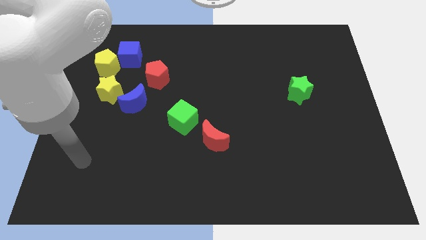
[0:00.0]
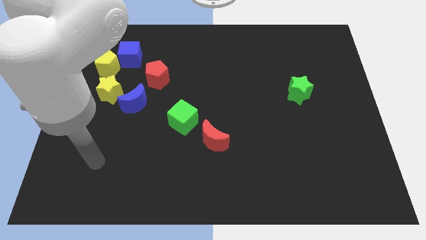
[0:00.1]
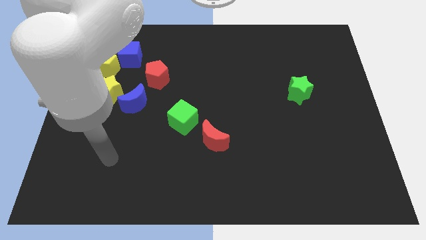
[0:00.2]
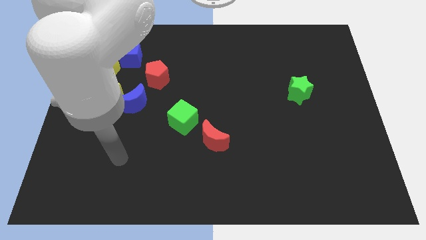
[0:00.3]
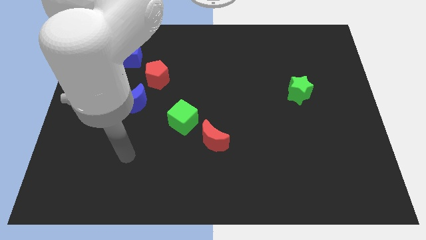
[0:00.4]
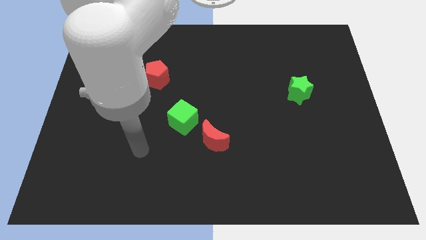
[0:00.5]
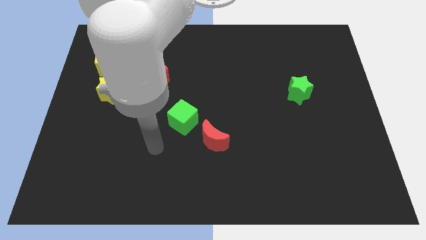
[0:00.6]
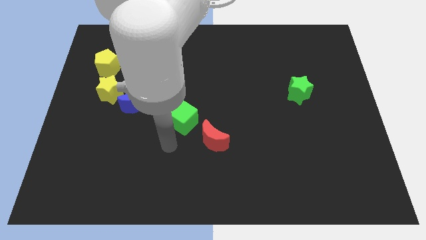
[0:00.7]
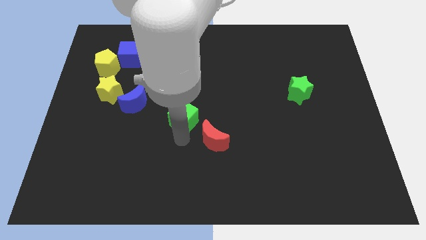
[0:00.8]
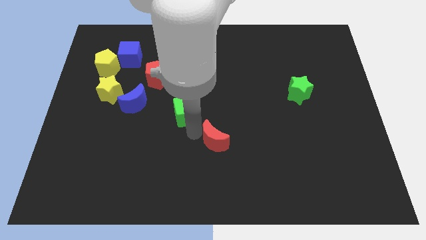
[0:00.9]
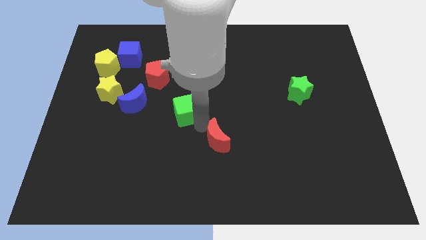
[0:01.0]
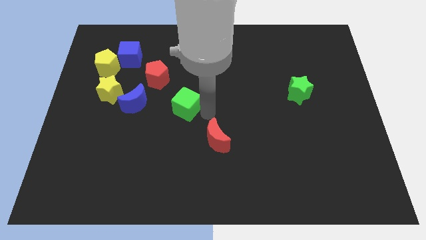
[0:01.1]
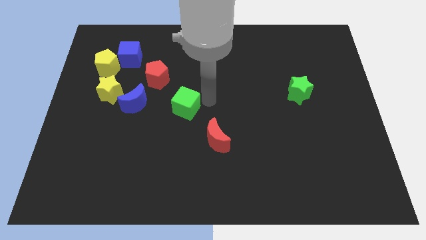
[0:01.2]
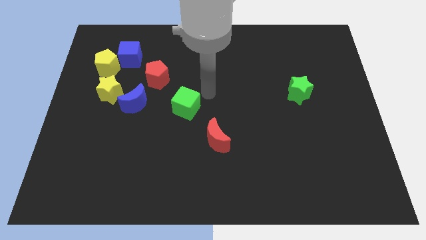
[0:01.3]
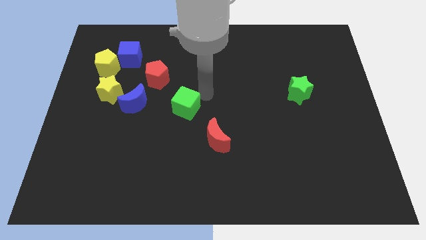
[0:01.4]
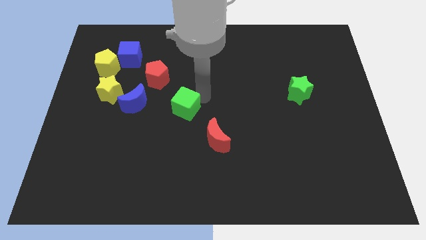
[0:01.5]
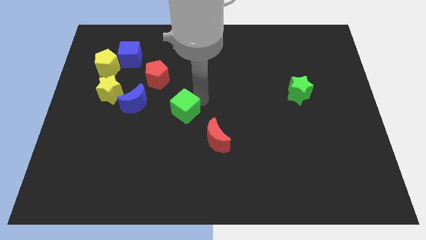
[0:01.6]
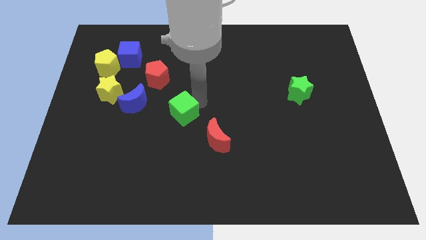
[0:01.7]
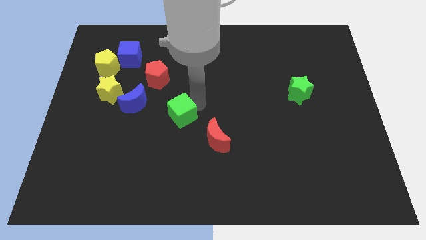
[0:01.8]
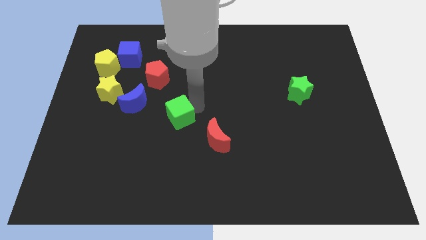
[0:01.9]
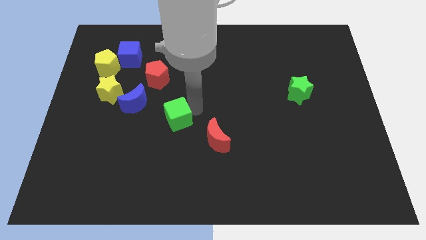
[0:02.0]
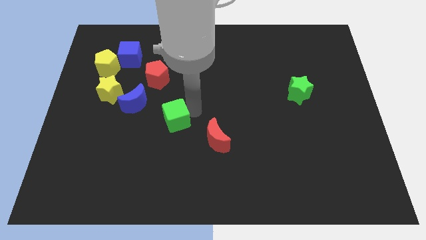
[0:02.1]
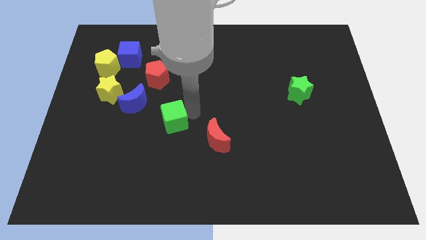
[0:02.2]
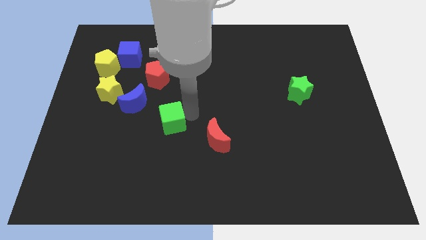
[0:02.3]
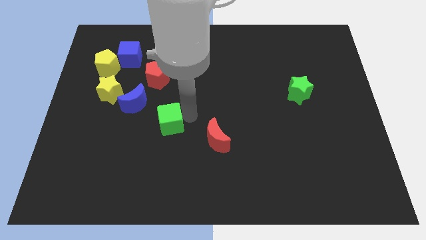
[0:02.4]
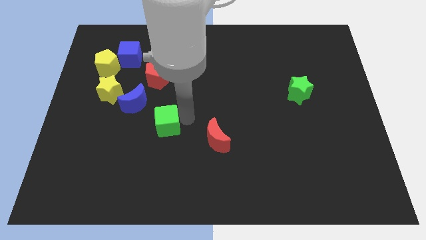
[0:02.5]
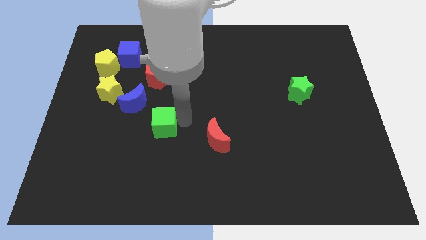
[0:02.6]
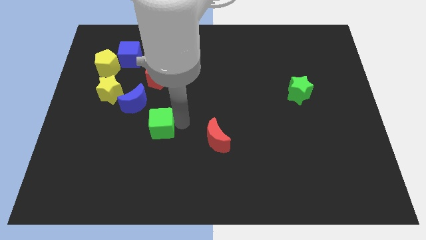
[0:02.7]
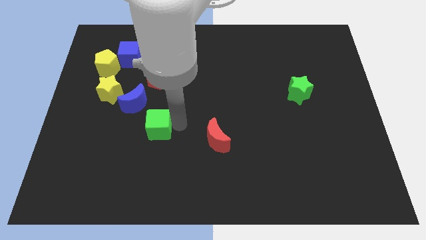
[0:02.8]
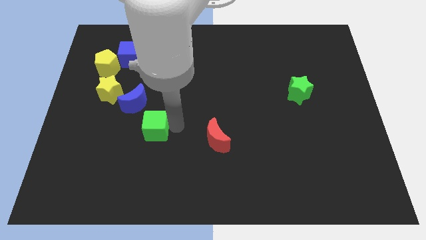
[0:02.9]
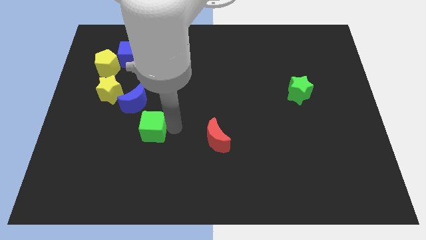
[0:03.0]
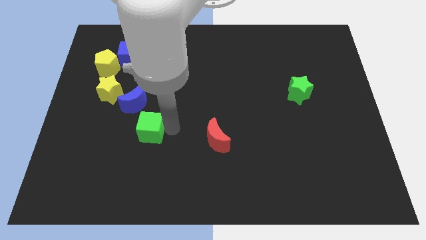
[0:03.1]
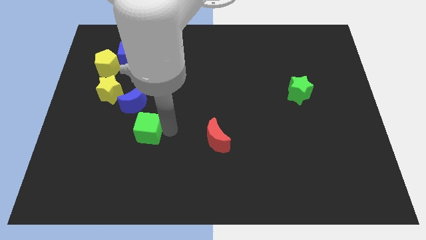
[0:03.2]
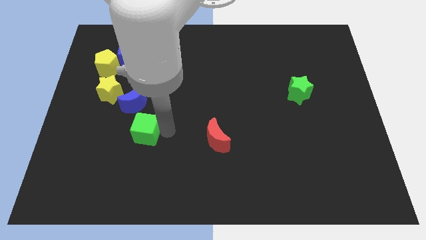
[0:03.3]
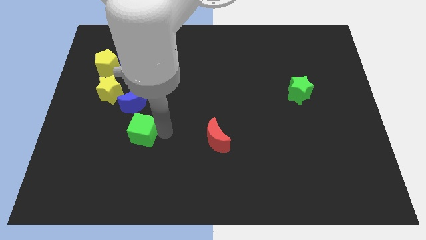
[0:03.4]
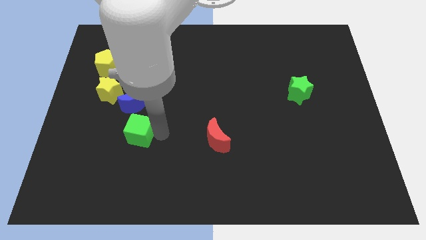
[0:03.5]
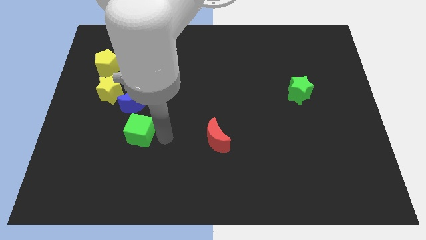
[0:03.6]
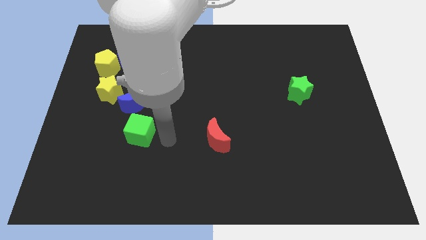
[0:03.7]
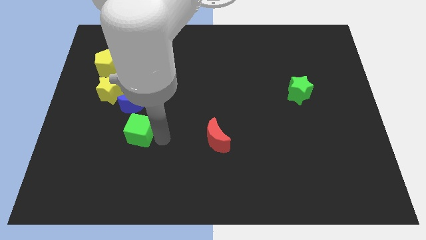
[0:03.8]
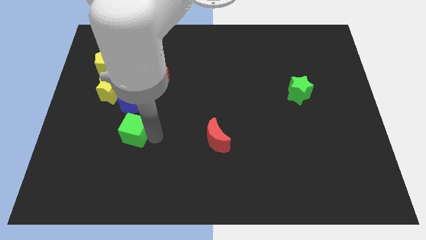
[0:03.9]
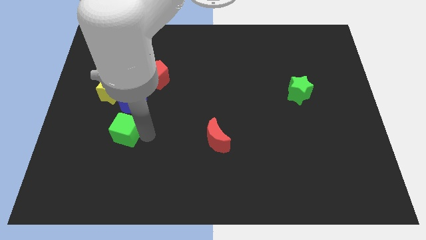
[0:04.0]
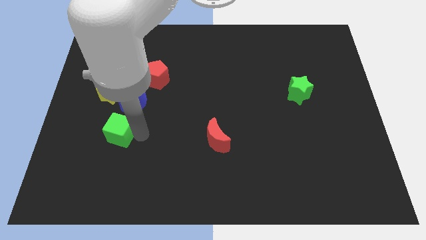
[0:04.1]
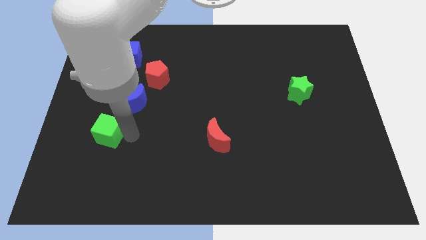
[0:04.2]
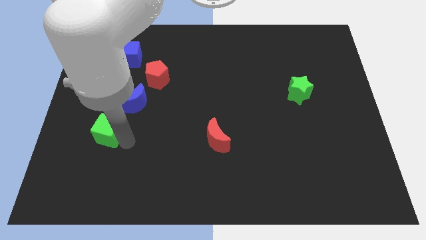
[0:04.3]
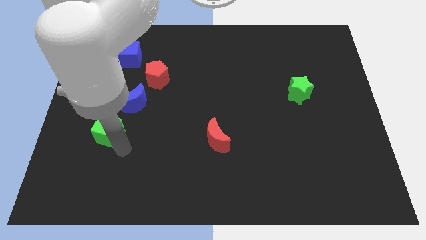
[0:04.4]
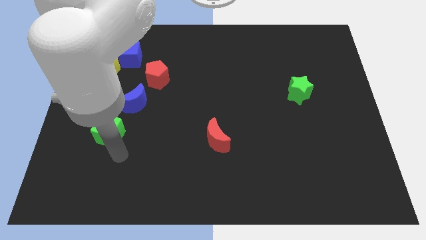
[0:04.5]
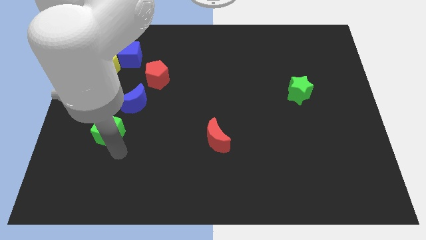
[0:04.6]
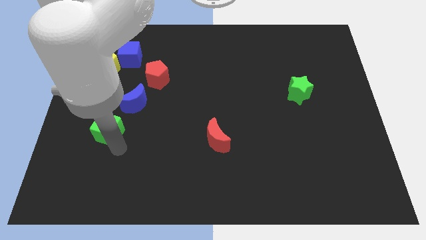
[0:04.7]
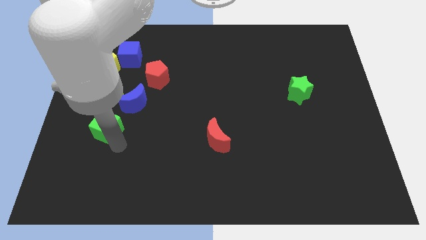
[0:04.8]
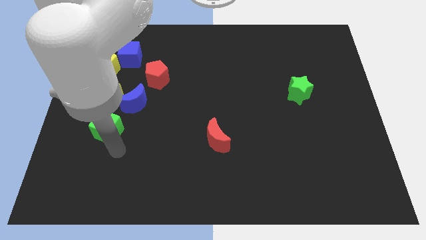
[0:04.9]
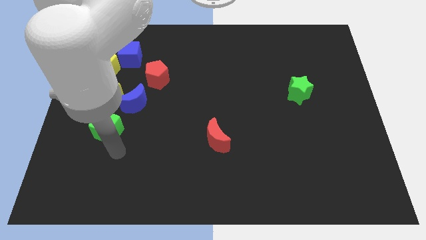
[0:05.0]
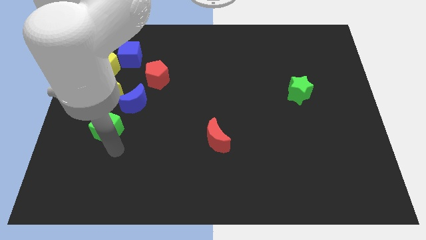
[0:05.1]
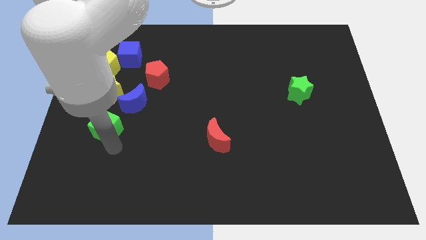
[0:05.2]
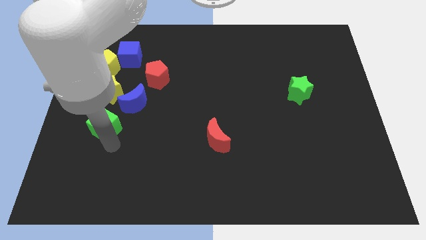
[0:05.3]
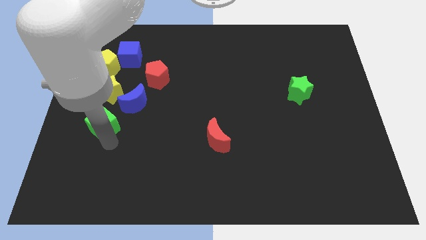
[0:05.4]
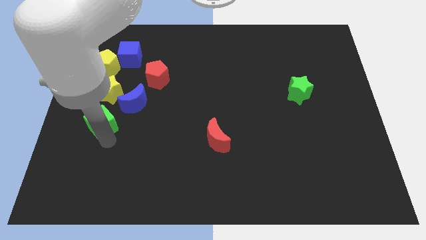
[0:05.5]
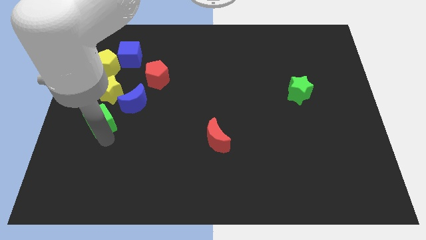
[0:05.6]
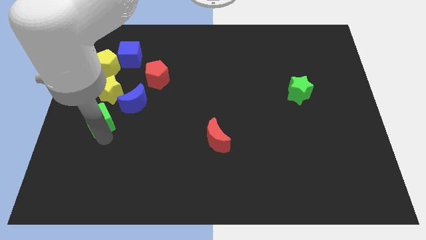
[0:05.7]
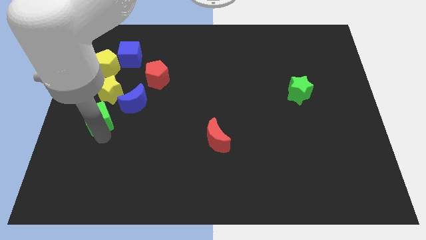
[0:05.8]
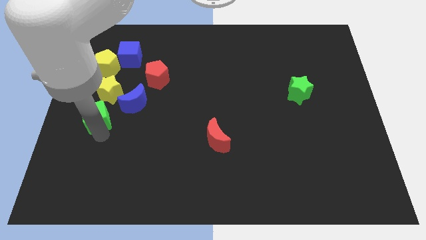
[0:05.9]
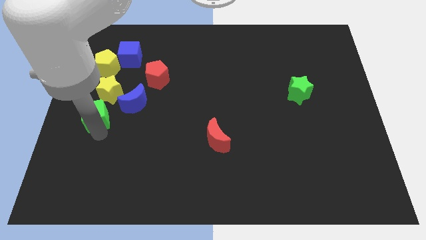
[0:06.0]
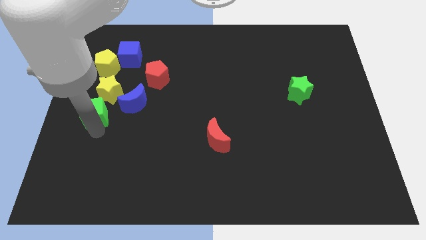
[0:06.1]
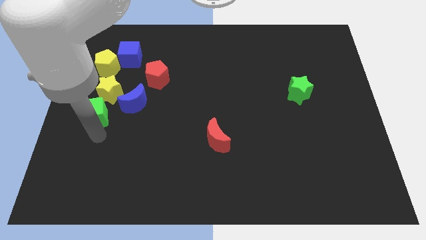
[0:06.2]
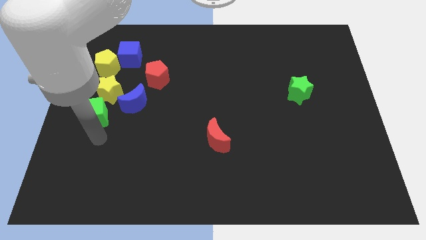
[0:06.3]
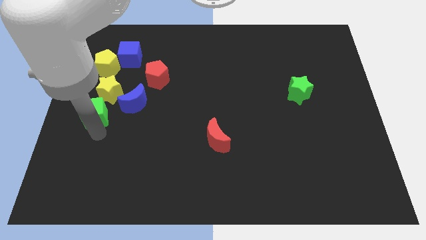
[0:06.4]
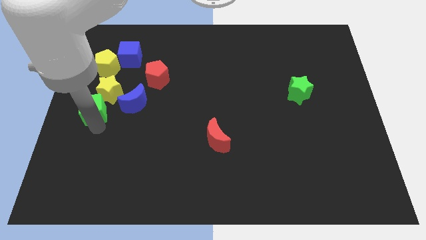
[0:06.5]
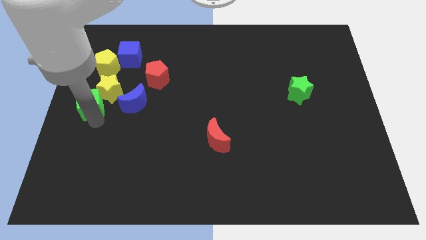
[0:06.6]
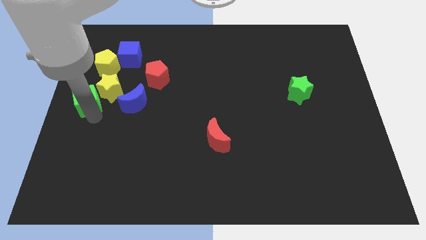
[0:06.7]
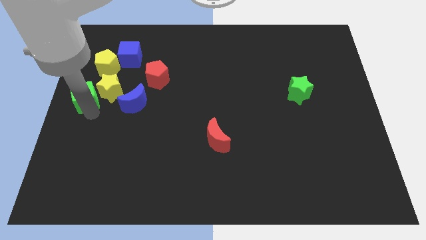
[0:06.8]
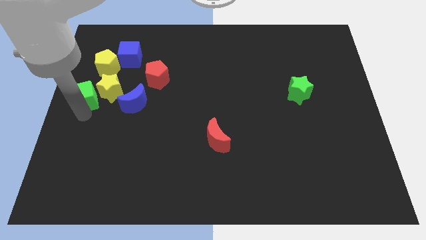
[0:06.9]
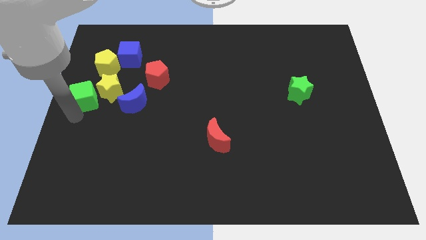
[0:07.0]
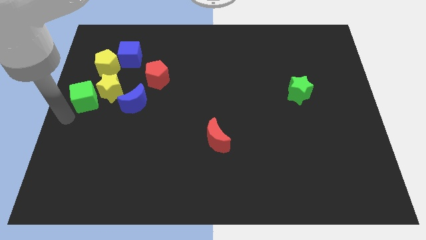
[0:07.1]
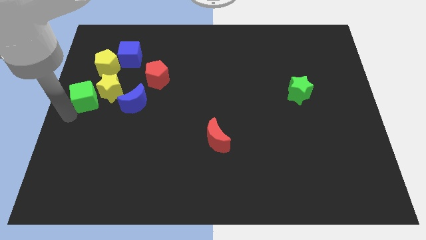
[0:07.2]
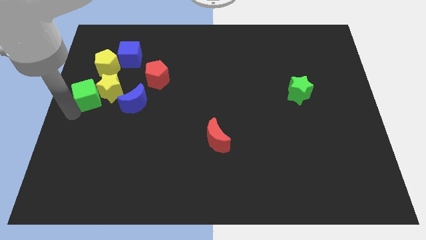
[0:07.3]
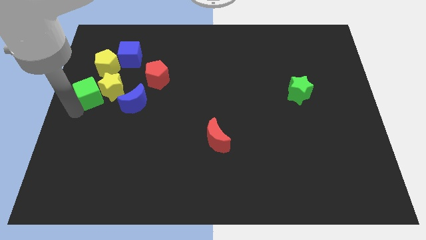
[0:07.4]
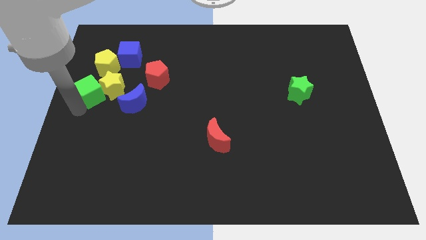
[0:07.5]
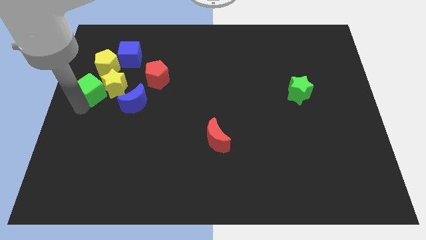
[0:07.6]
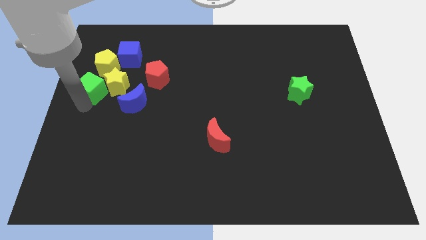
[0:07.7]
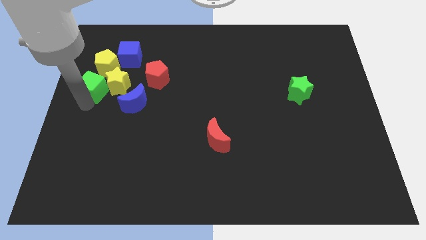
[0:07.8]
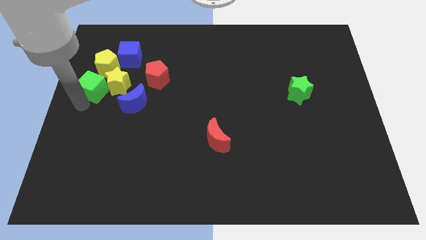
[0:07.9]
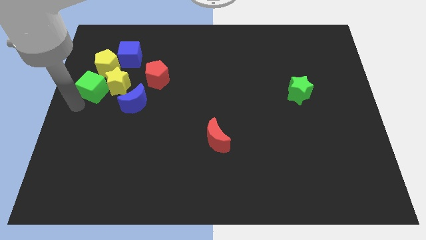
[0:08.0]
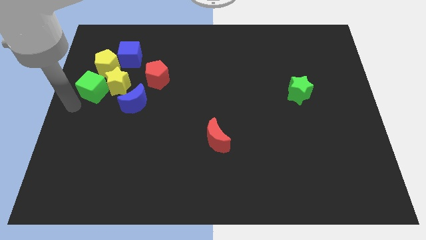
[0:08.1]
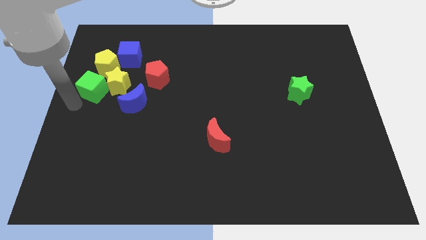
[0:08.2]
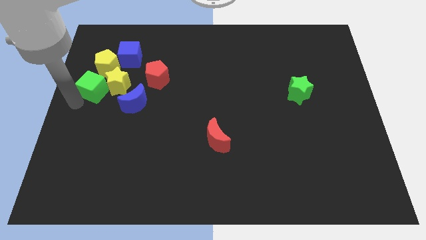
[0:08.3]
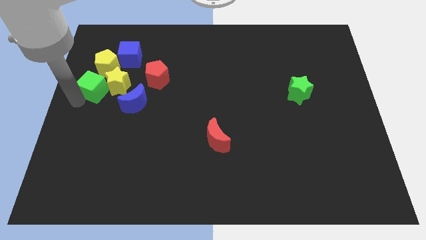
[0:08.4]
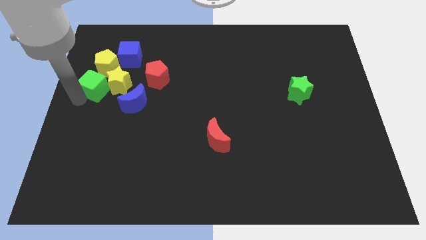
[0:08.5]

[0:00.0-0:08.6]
move the green cube diagonally up and to the left of the blue moon
